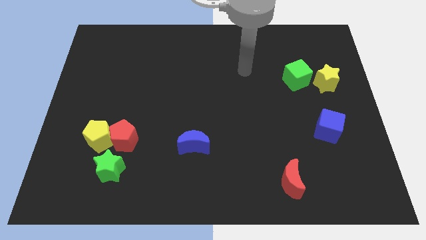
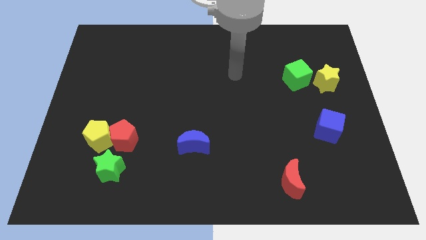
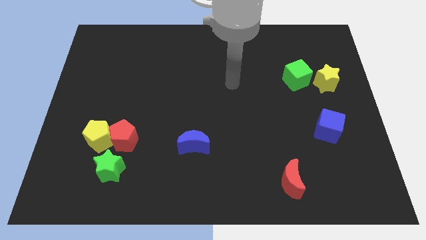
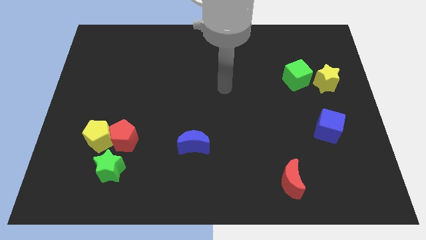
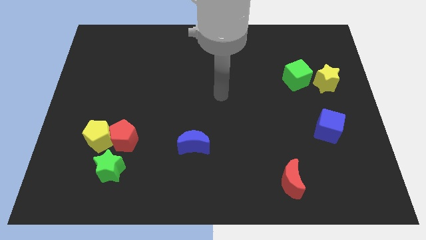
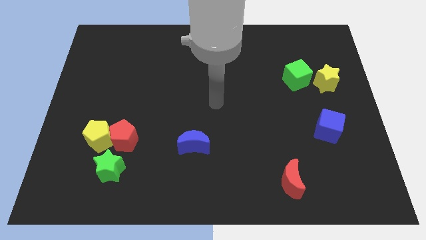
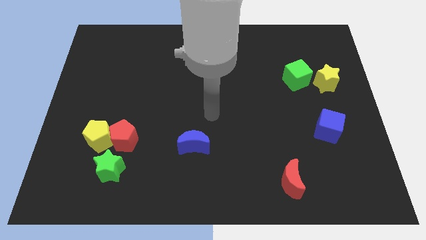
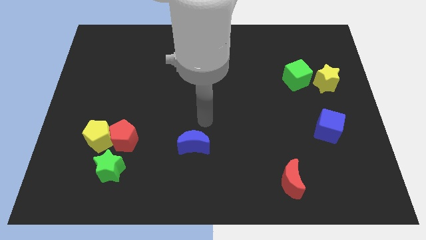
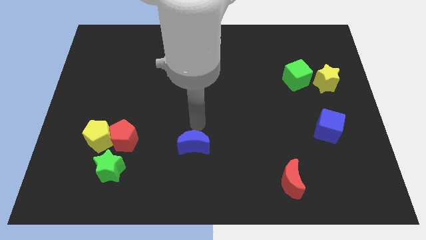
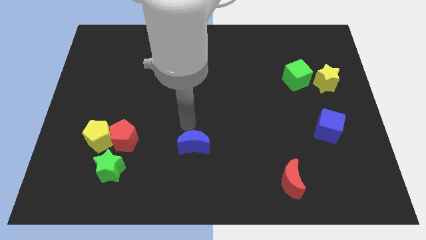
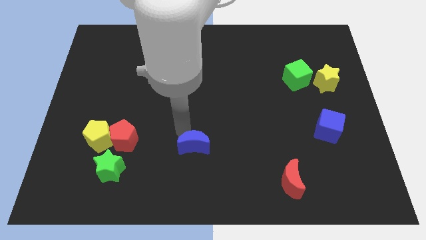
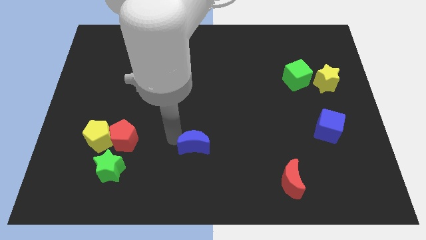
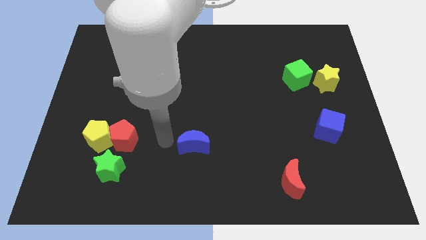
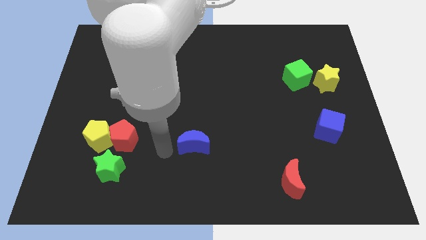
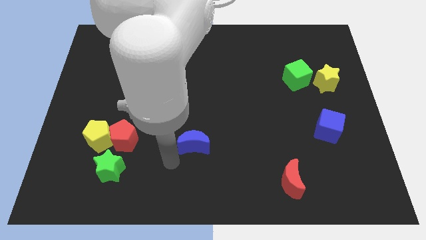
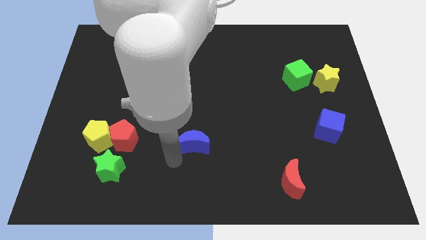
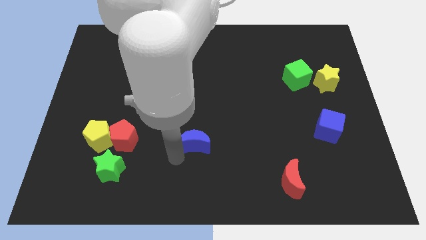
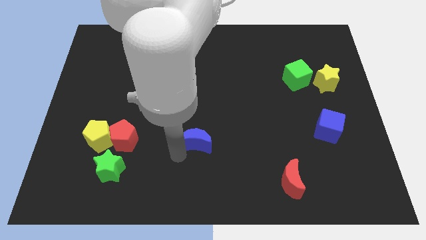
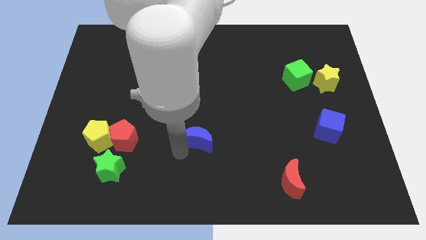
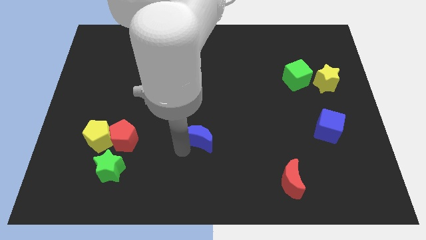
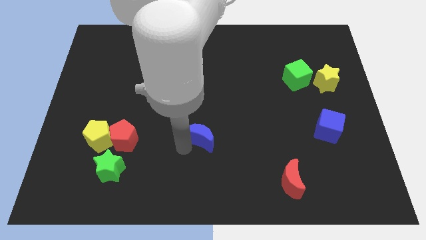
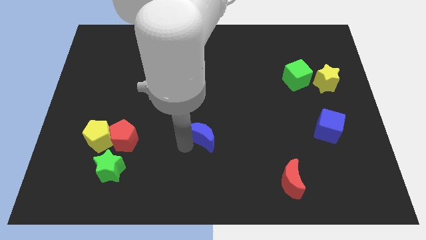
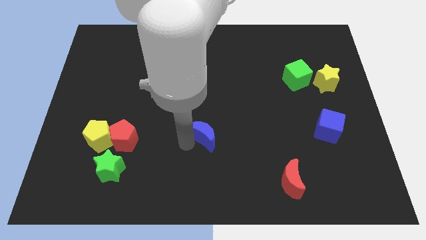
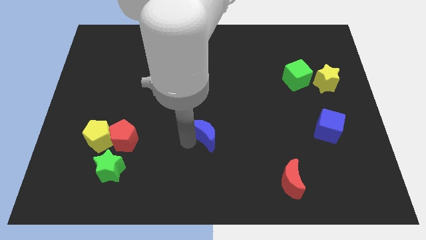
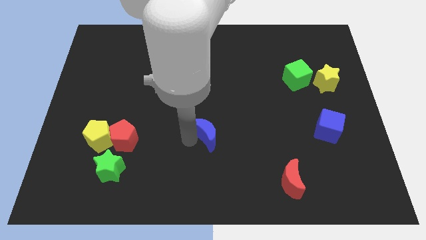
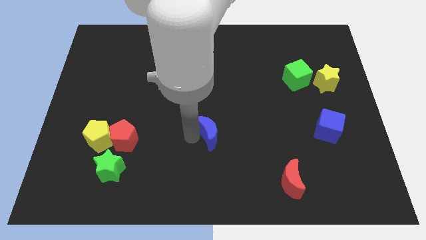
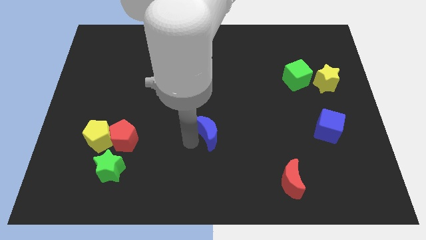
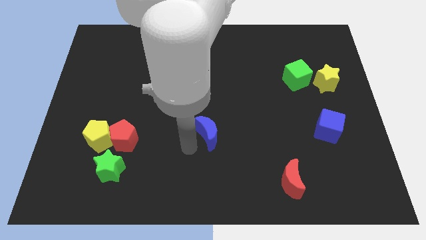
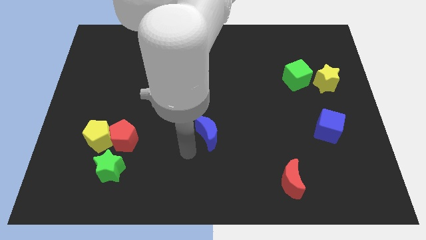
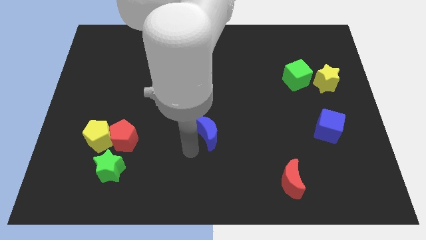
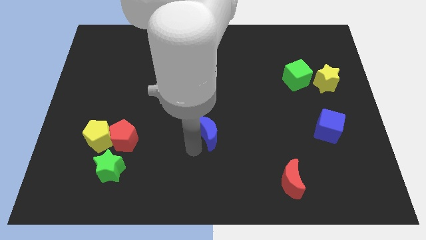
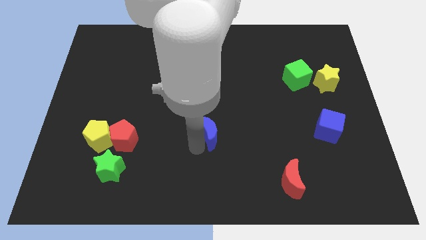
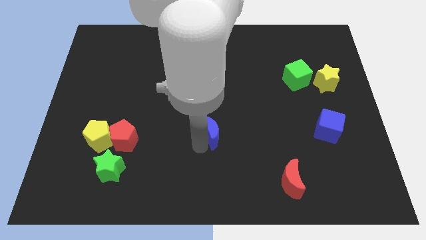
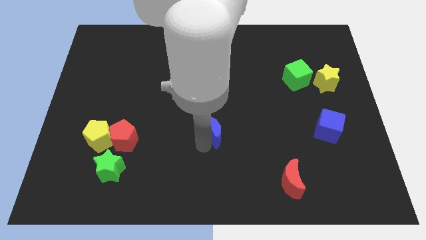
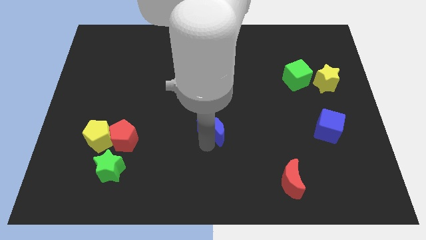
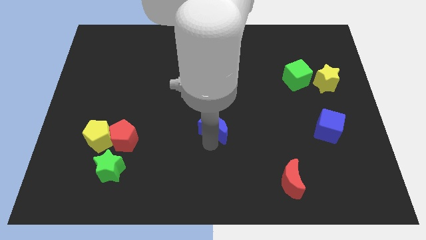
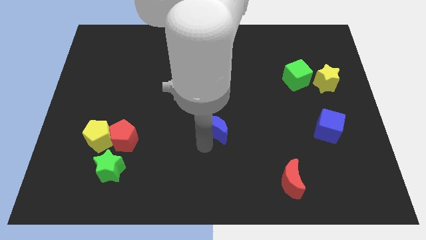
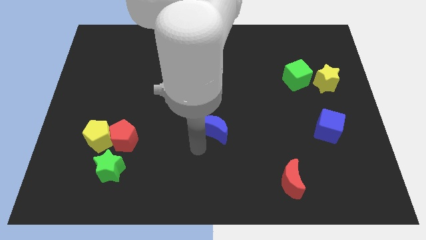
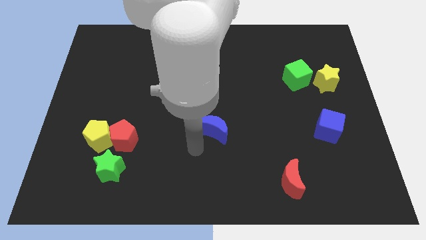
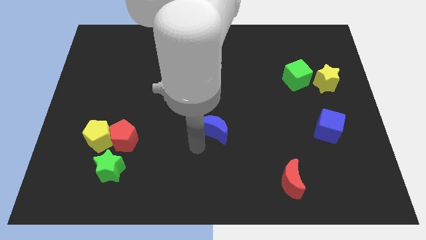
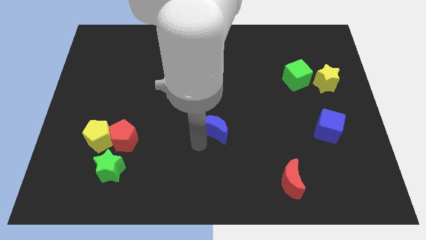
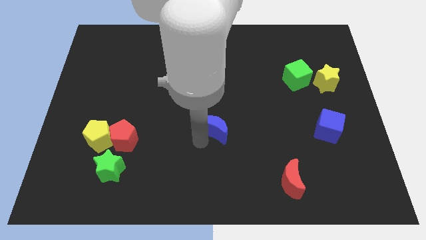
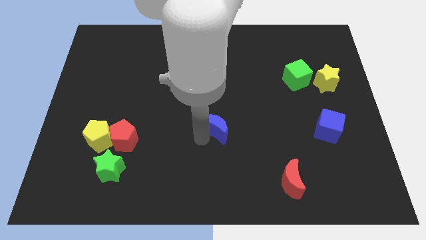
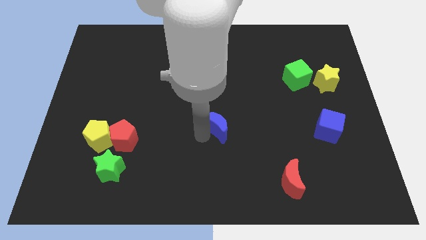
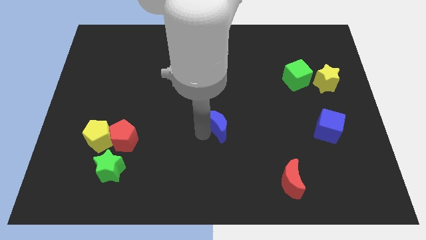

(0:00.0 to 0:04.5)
move the blue moon diagonally up and to the right somewhat

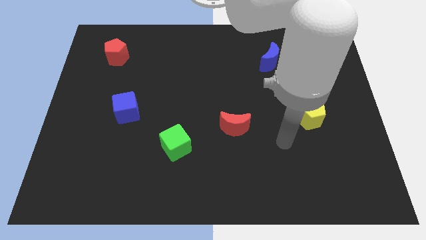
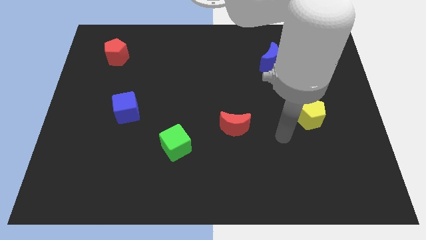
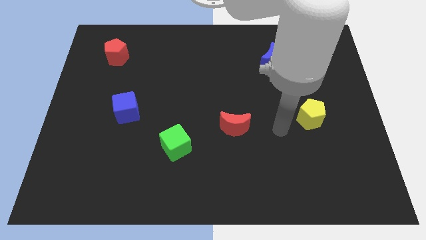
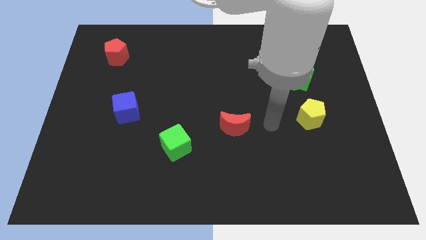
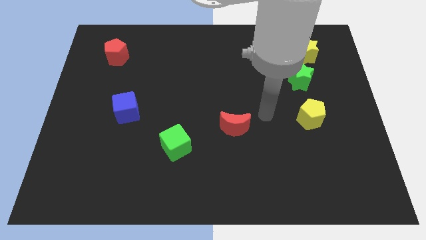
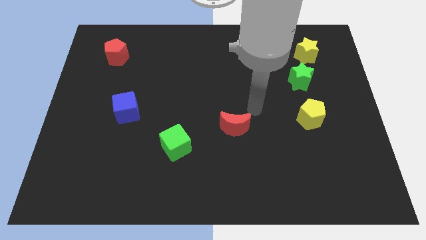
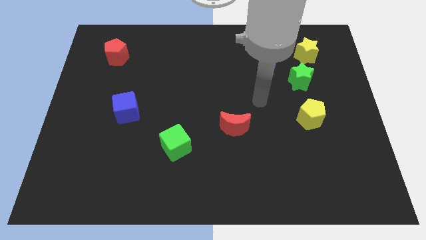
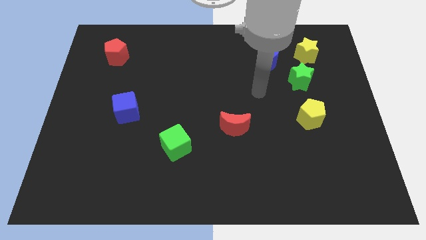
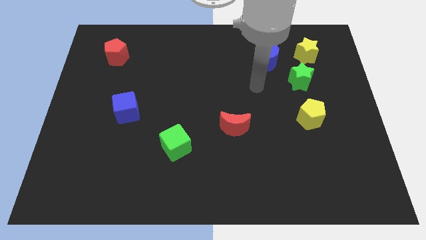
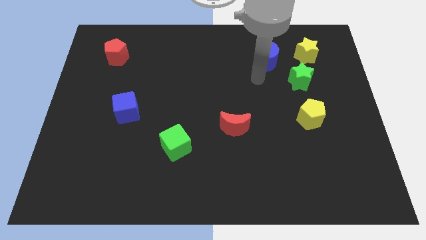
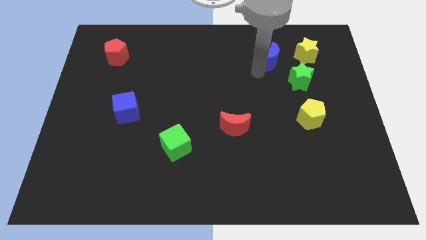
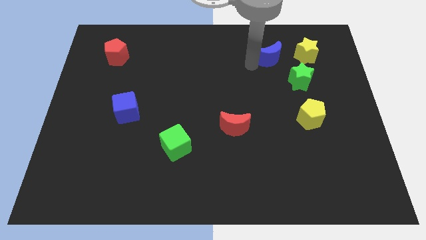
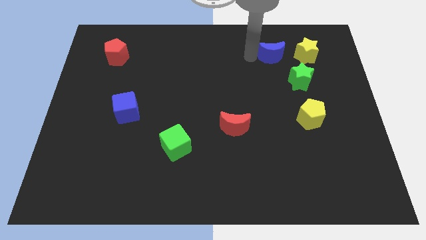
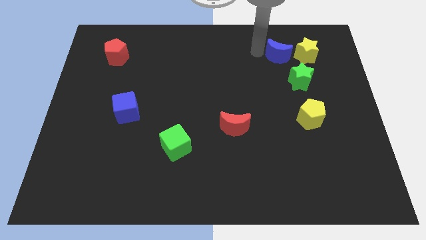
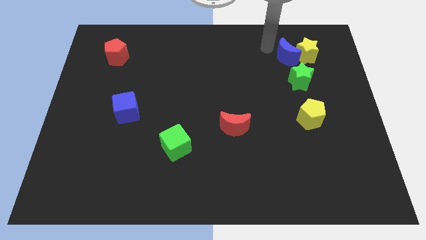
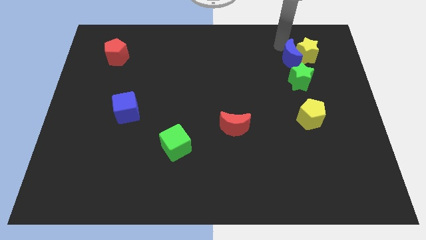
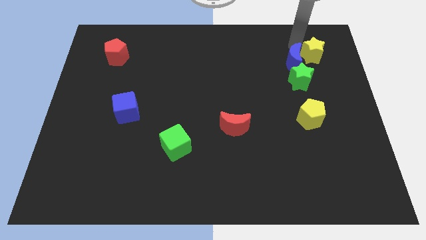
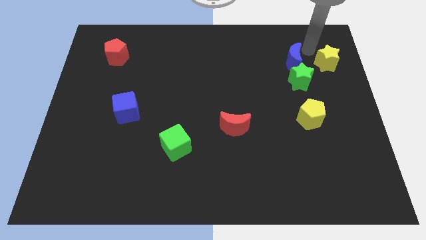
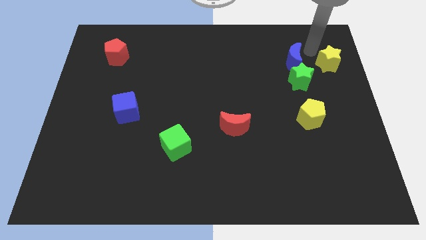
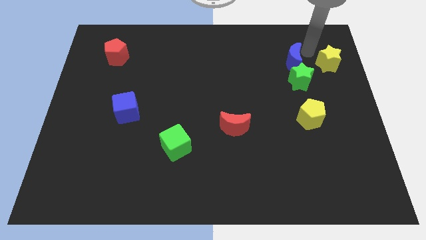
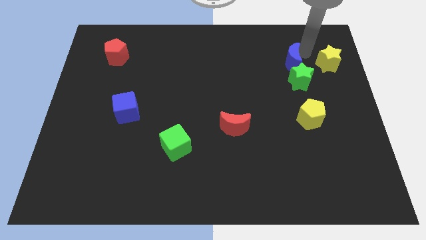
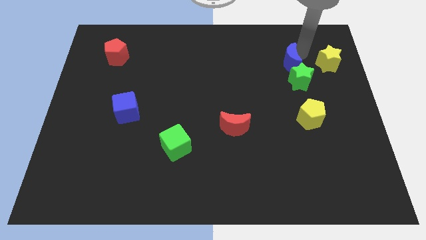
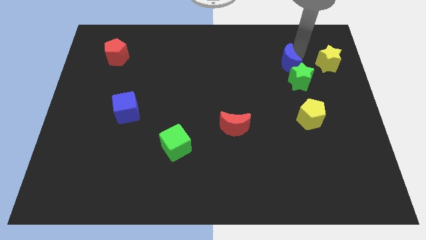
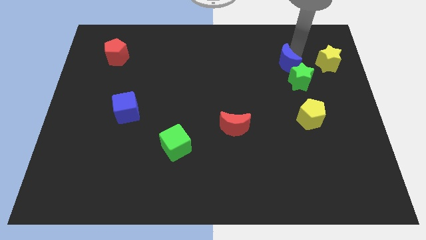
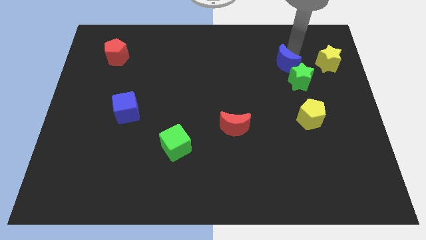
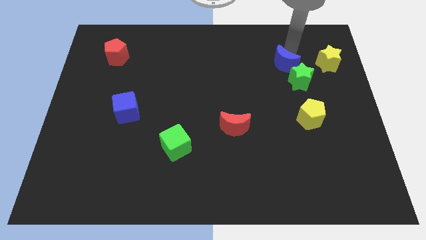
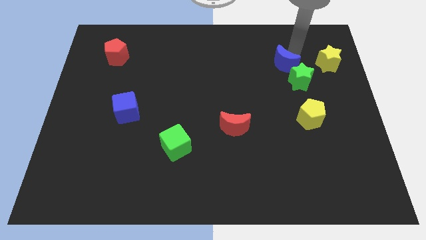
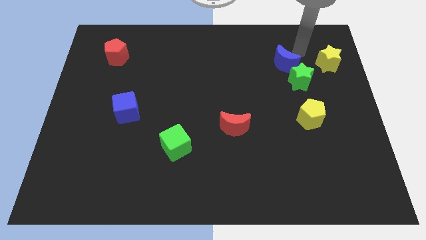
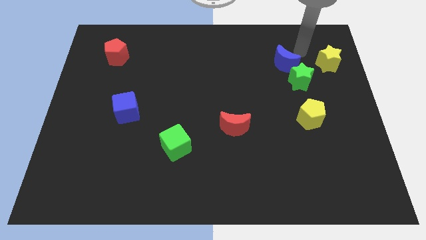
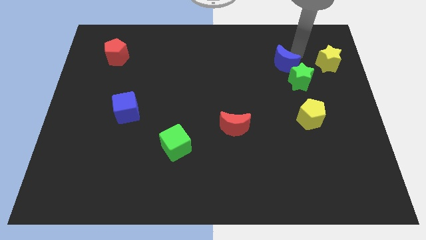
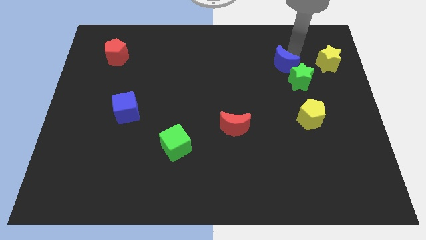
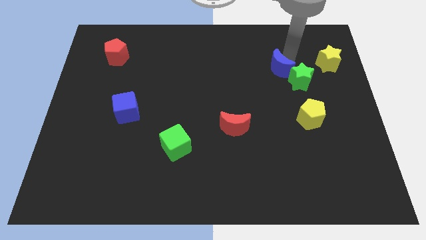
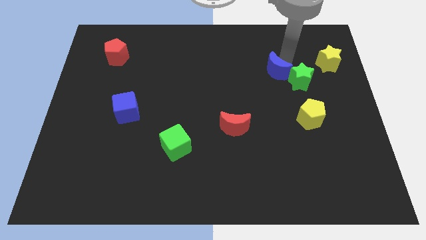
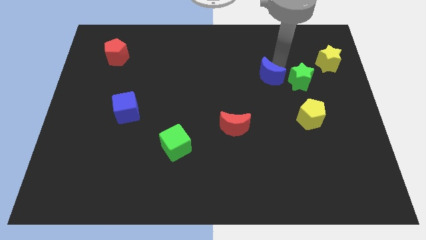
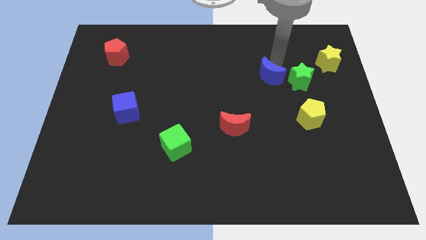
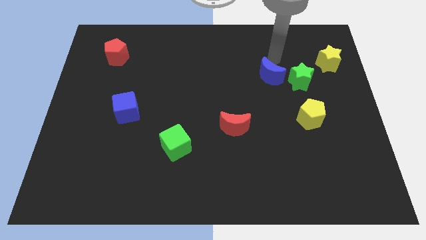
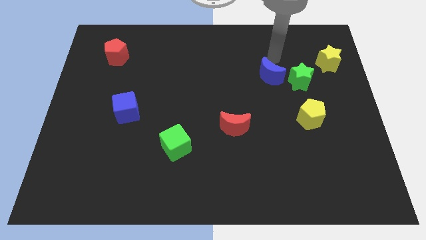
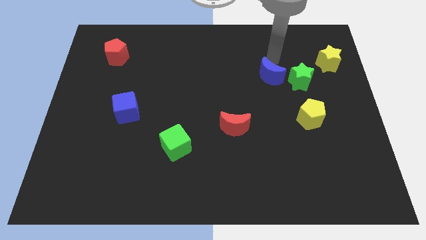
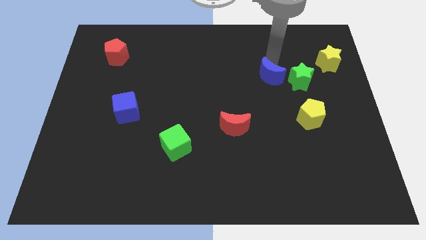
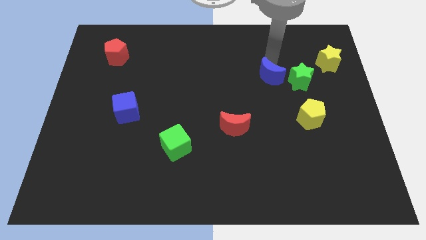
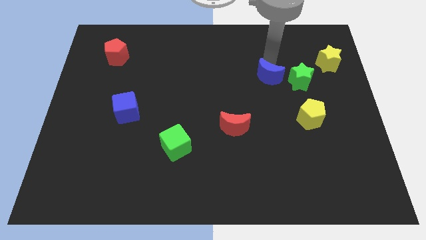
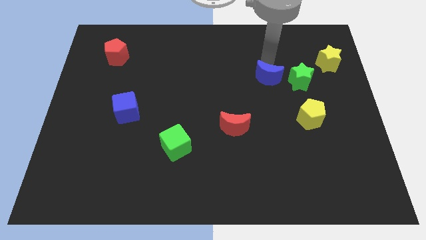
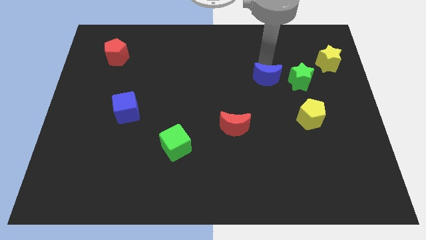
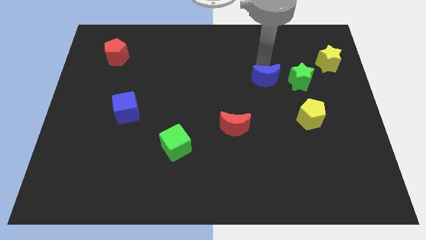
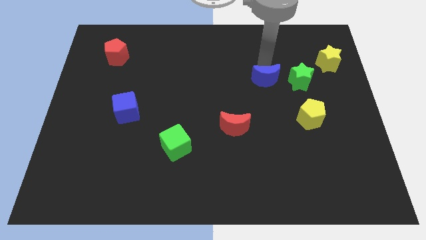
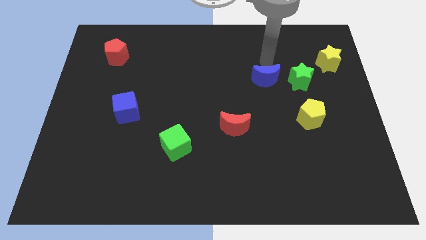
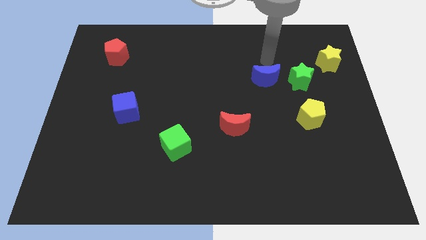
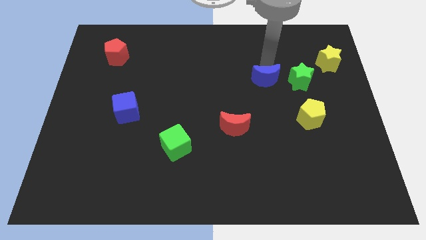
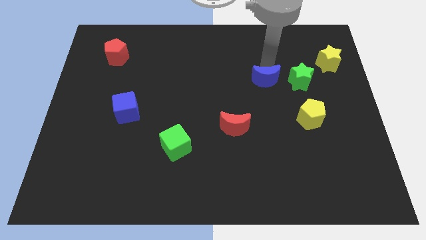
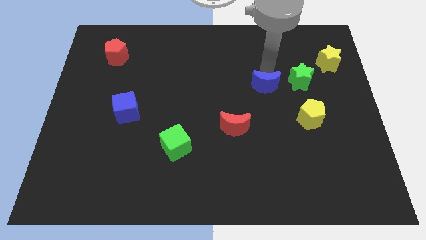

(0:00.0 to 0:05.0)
push the blue moon a little down
